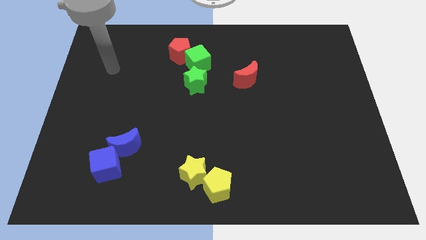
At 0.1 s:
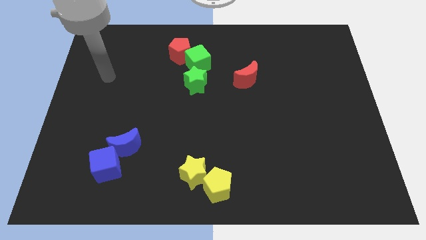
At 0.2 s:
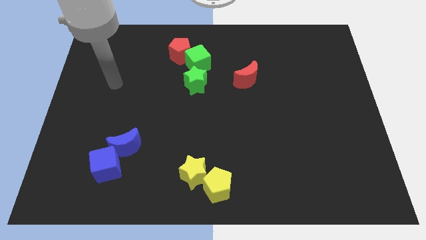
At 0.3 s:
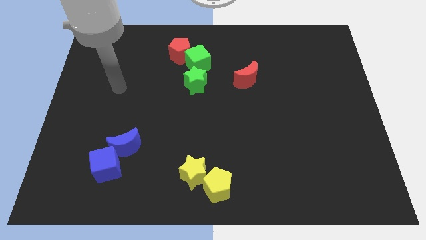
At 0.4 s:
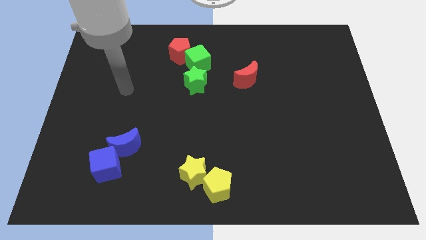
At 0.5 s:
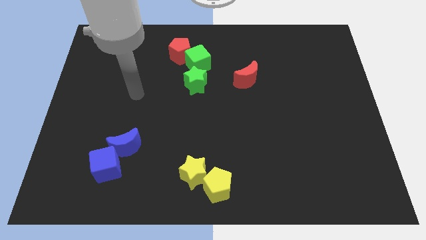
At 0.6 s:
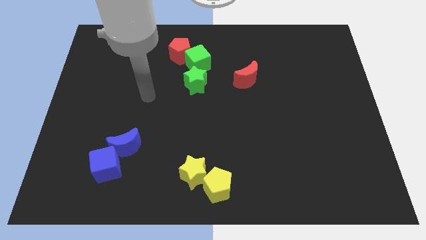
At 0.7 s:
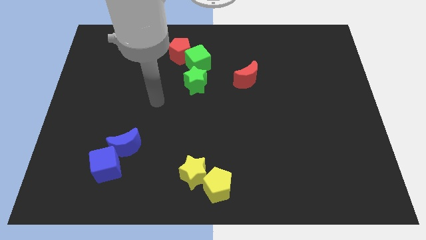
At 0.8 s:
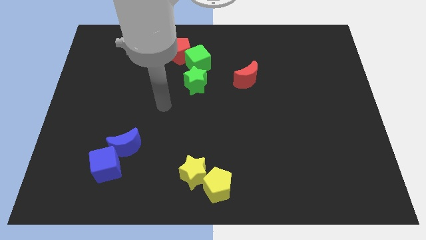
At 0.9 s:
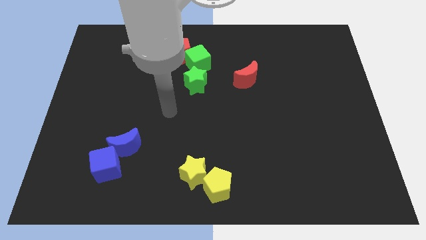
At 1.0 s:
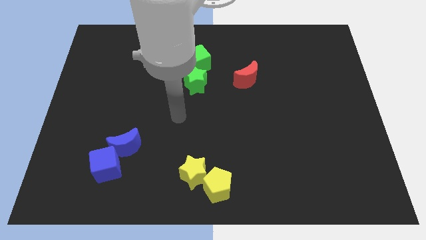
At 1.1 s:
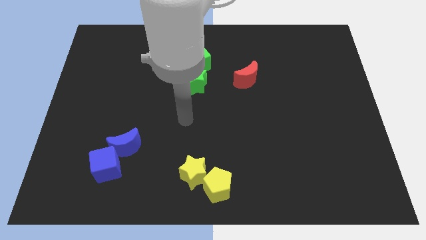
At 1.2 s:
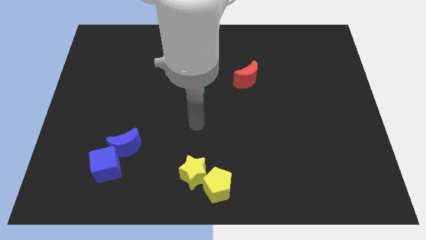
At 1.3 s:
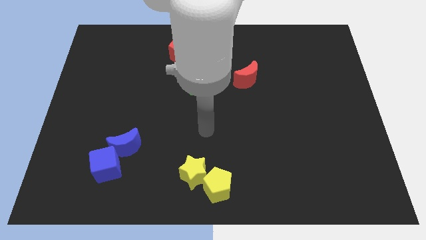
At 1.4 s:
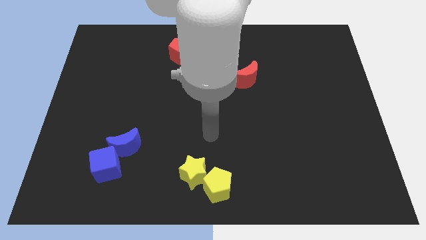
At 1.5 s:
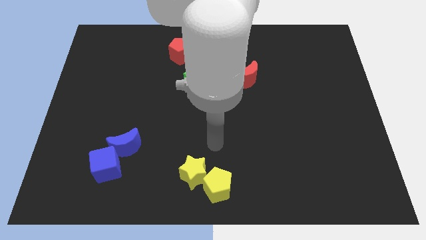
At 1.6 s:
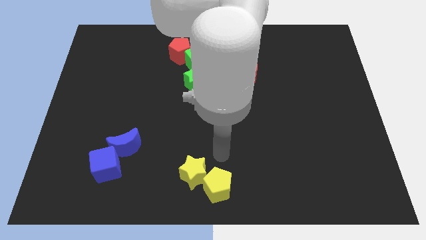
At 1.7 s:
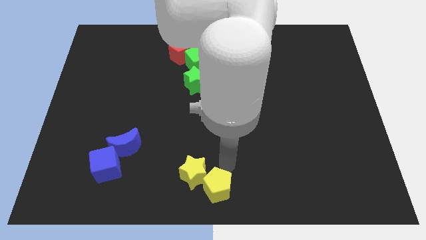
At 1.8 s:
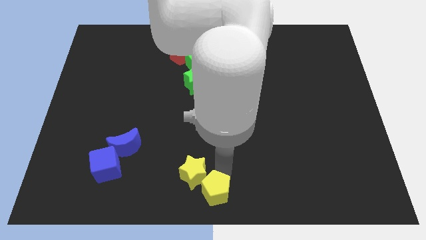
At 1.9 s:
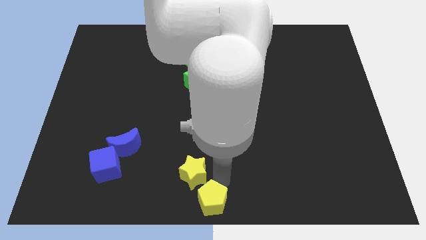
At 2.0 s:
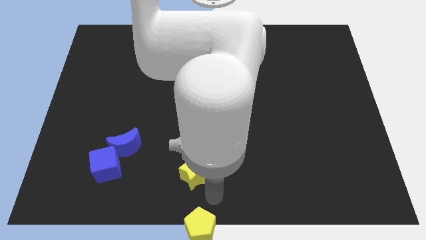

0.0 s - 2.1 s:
pull the yellow star apart from the yellow pentagon

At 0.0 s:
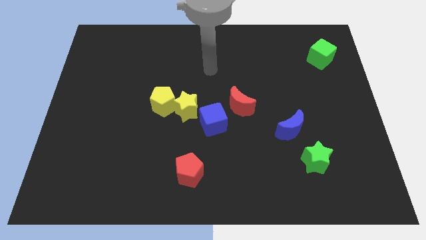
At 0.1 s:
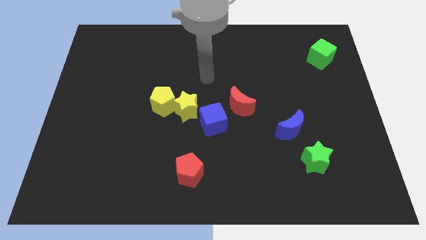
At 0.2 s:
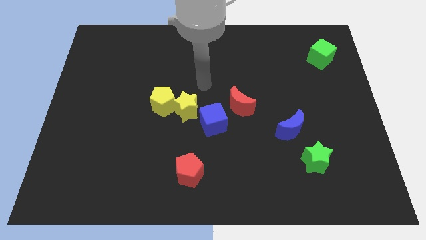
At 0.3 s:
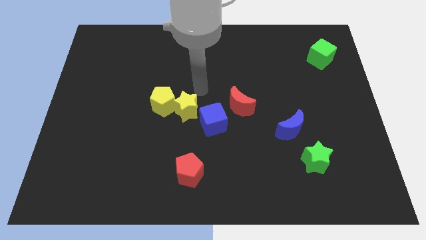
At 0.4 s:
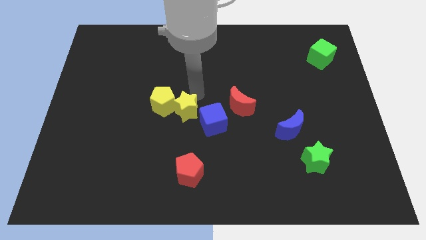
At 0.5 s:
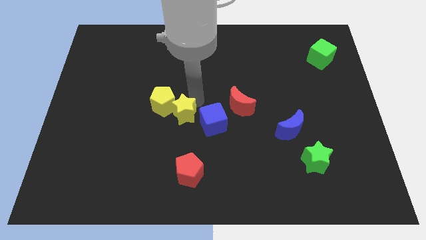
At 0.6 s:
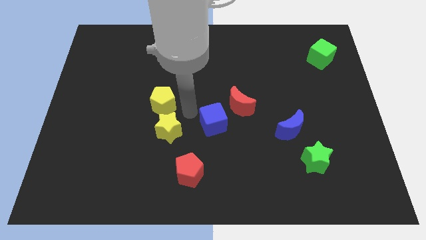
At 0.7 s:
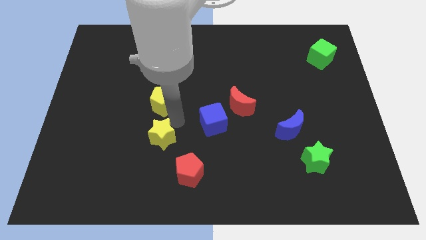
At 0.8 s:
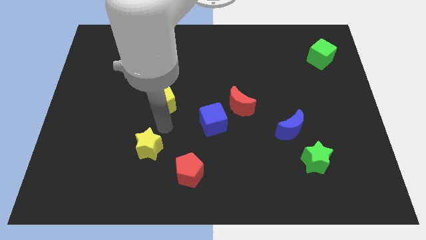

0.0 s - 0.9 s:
pull the yellow pentagon apart from the yellow star

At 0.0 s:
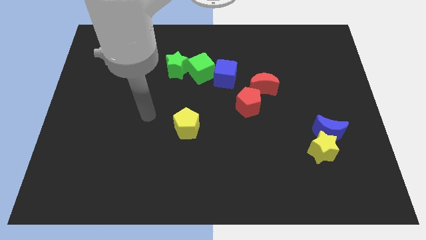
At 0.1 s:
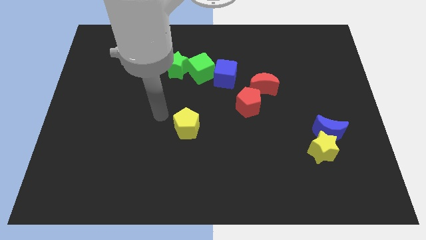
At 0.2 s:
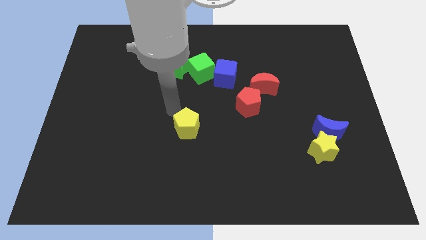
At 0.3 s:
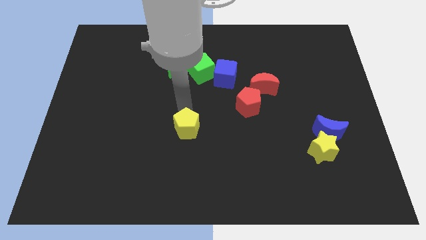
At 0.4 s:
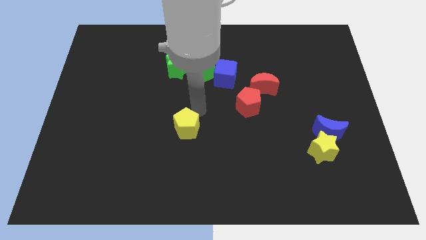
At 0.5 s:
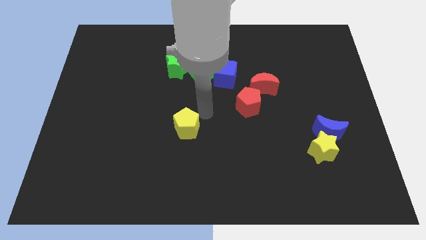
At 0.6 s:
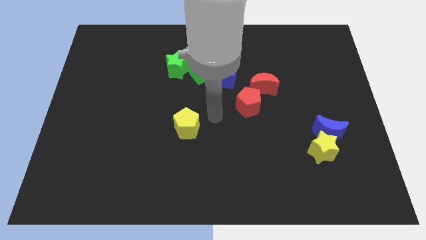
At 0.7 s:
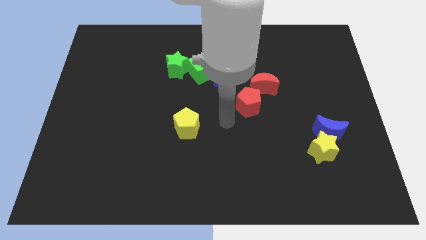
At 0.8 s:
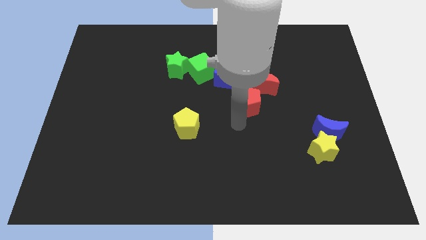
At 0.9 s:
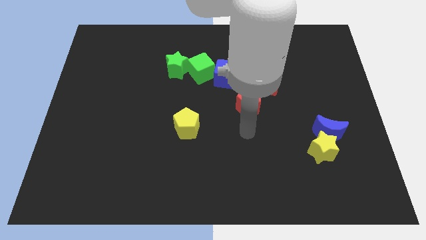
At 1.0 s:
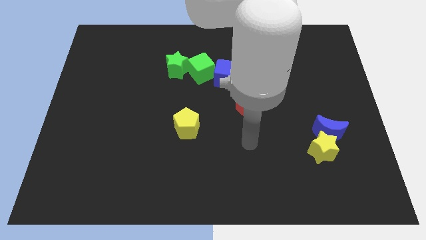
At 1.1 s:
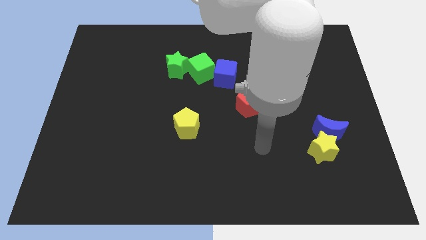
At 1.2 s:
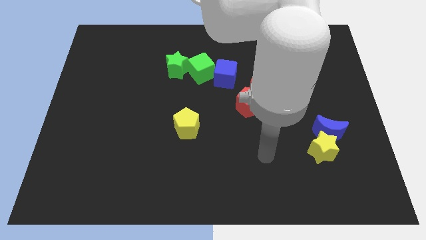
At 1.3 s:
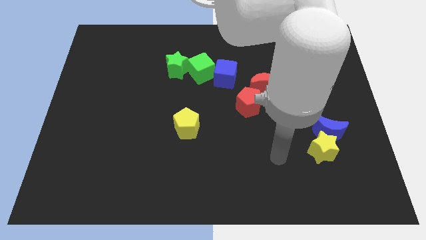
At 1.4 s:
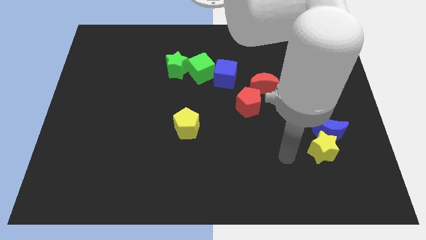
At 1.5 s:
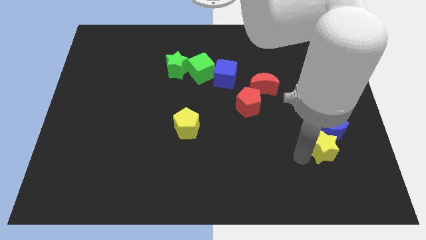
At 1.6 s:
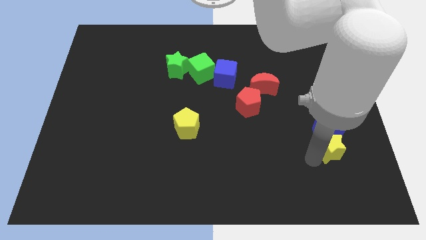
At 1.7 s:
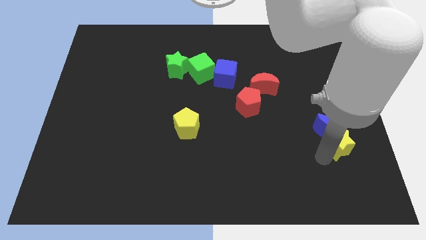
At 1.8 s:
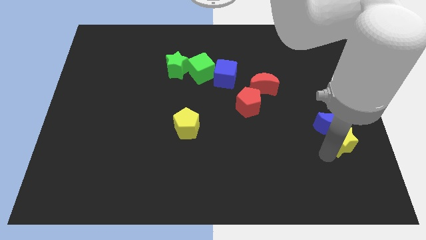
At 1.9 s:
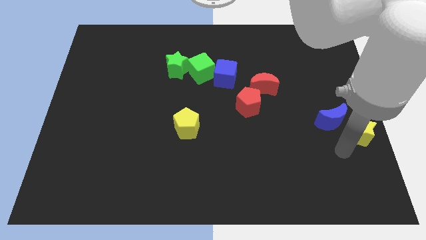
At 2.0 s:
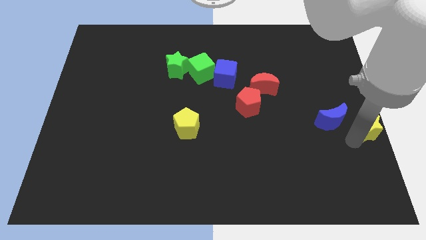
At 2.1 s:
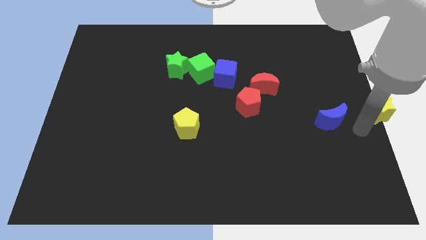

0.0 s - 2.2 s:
separate the blue moon from the yellow star

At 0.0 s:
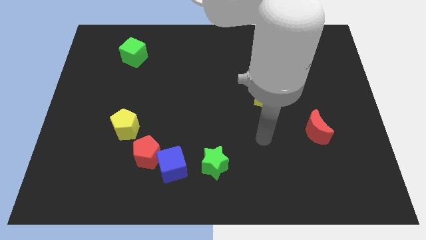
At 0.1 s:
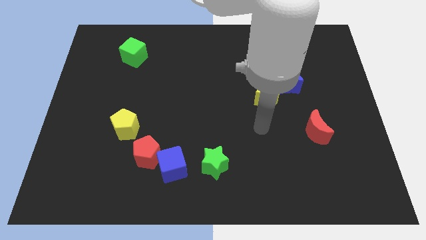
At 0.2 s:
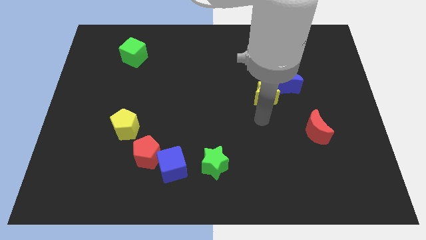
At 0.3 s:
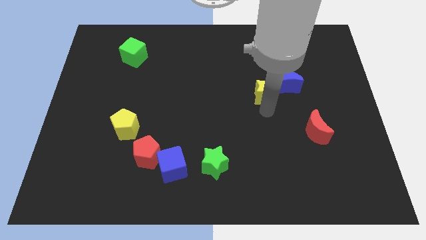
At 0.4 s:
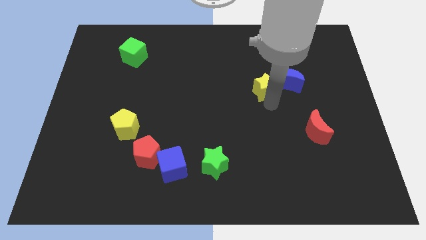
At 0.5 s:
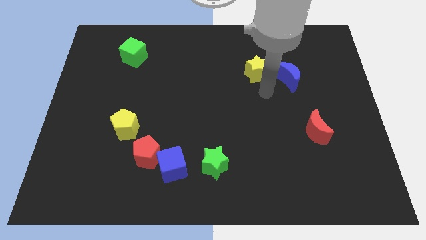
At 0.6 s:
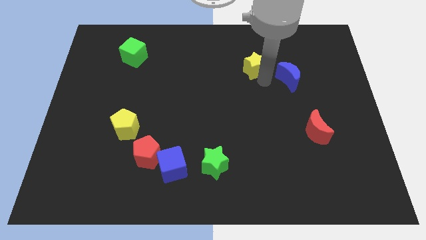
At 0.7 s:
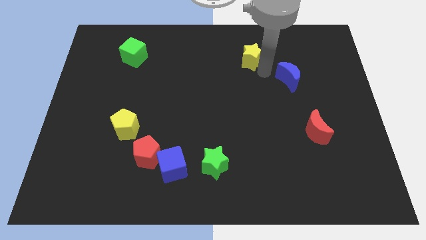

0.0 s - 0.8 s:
move the blue moon away from the yellow star

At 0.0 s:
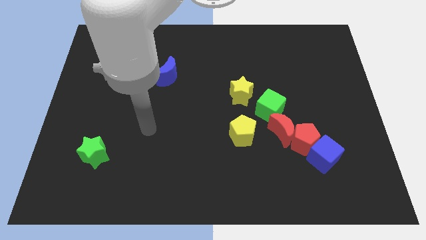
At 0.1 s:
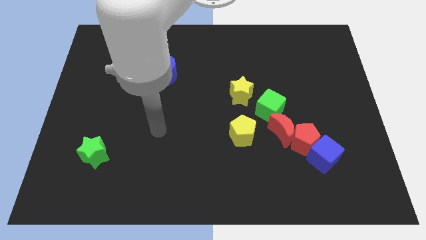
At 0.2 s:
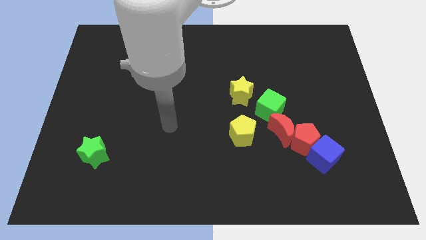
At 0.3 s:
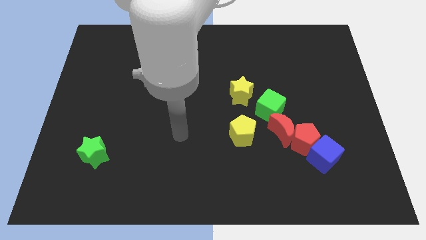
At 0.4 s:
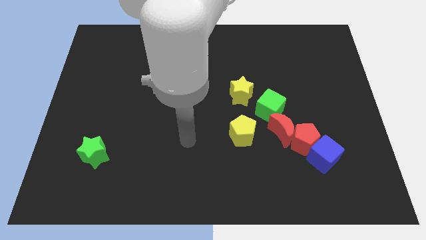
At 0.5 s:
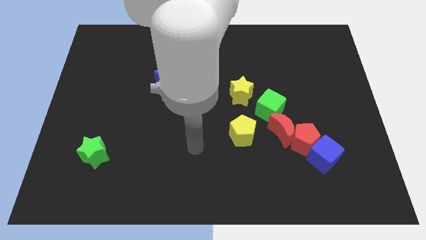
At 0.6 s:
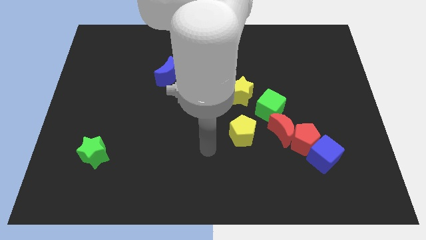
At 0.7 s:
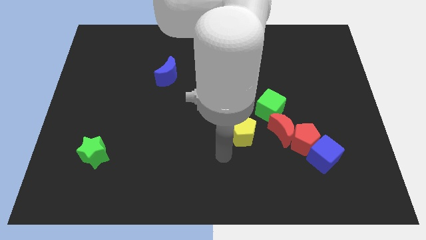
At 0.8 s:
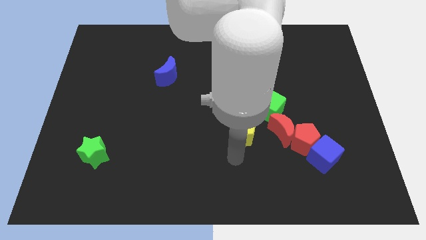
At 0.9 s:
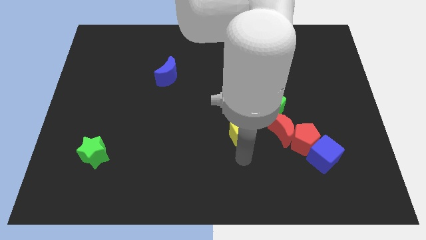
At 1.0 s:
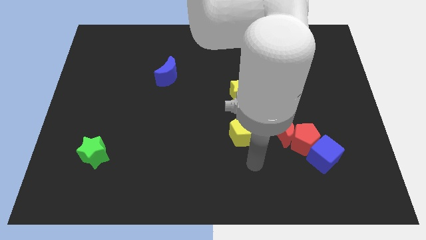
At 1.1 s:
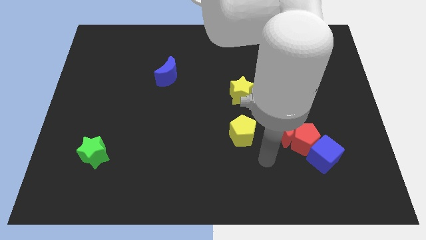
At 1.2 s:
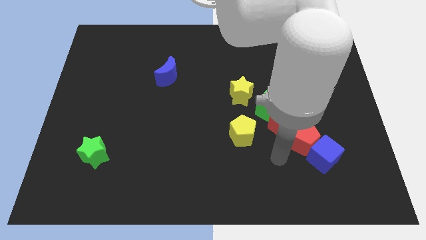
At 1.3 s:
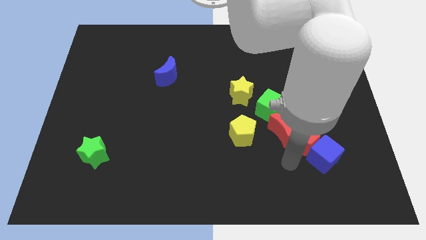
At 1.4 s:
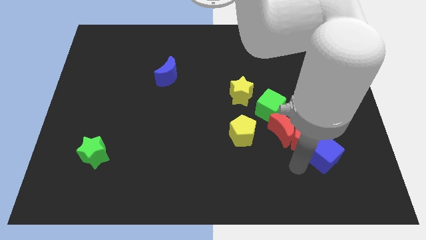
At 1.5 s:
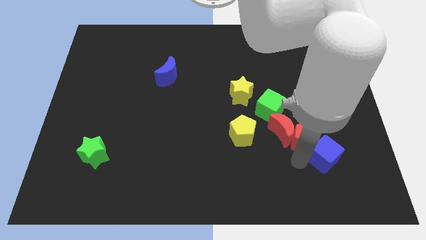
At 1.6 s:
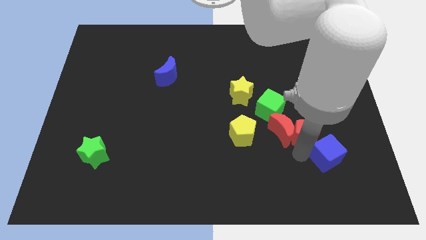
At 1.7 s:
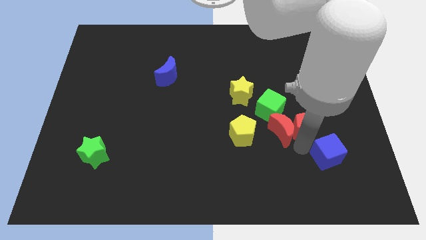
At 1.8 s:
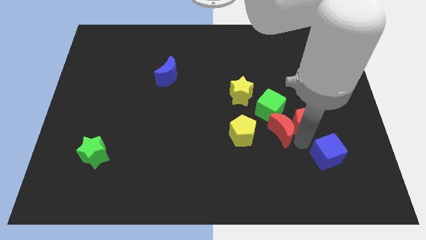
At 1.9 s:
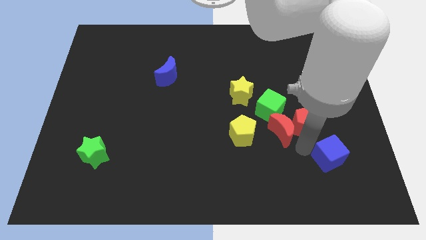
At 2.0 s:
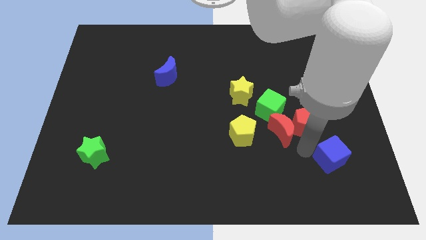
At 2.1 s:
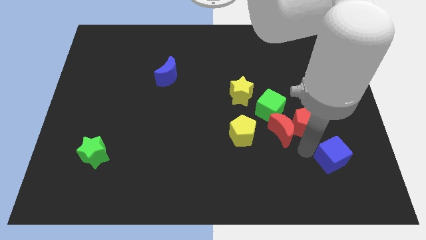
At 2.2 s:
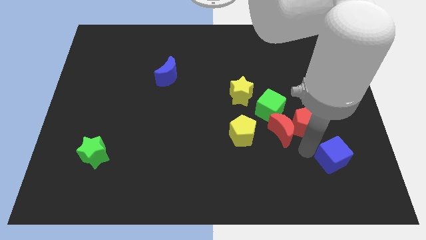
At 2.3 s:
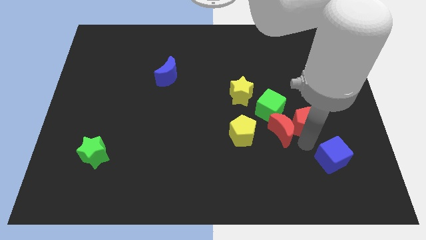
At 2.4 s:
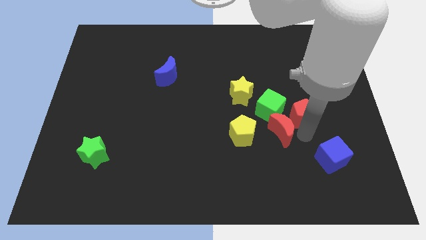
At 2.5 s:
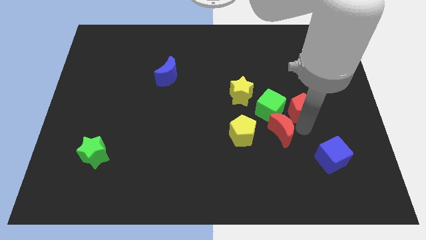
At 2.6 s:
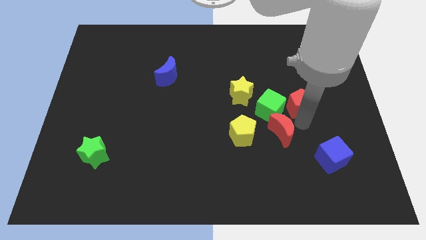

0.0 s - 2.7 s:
separate the red pentagon from the red moon and blue cube

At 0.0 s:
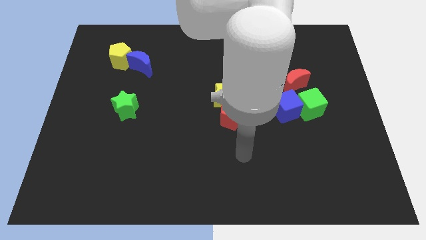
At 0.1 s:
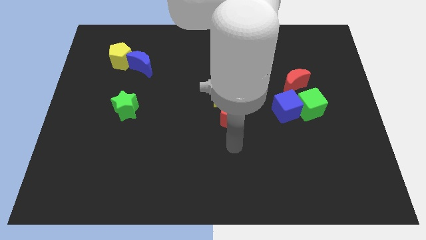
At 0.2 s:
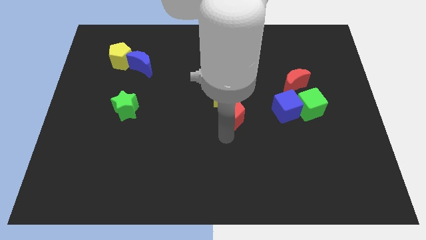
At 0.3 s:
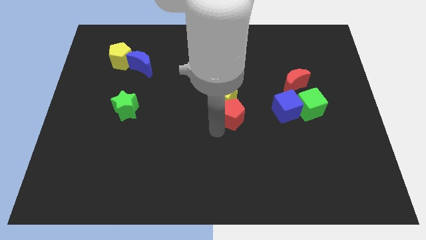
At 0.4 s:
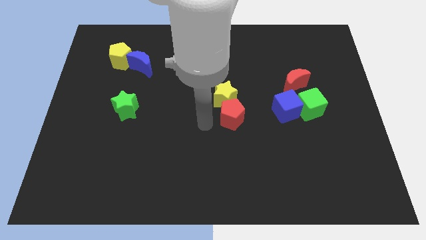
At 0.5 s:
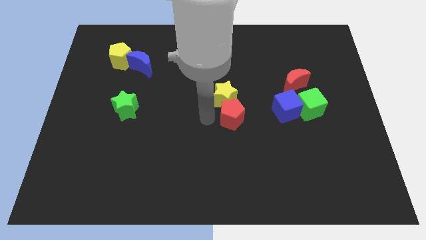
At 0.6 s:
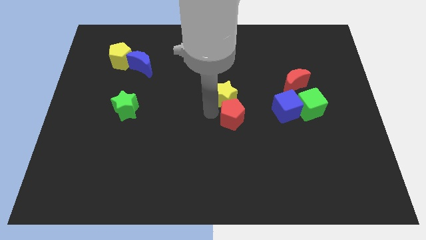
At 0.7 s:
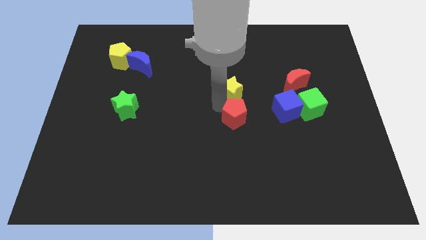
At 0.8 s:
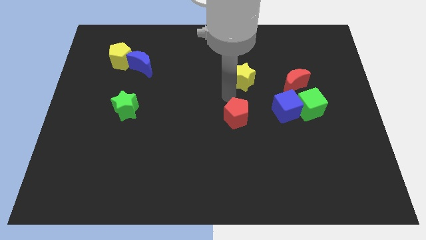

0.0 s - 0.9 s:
separate the red pentagon from the yellow star
